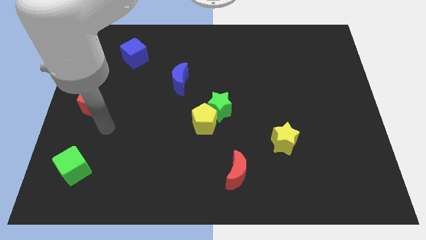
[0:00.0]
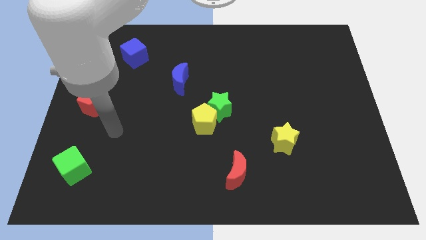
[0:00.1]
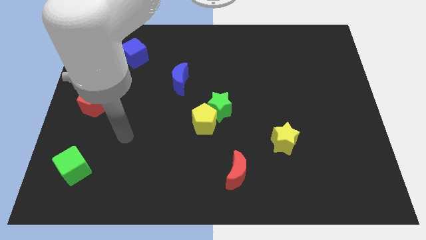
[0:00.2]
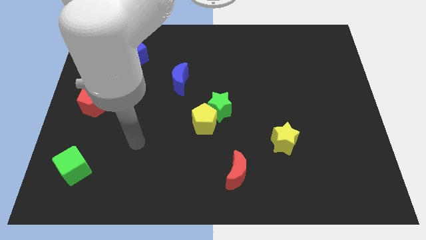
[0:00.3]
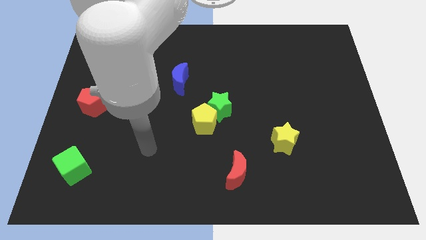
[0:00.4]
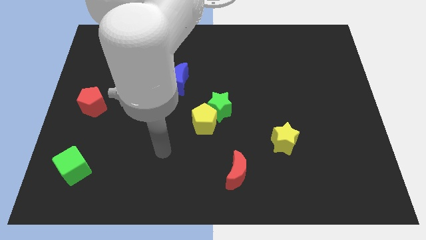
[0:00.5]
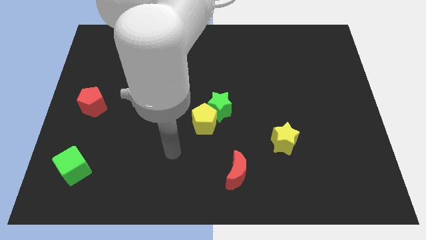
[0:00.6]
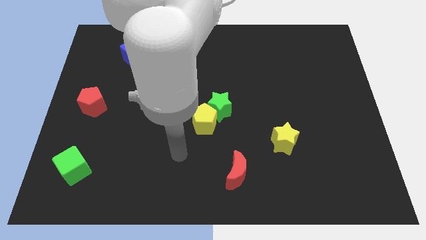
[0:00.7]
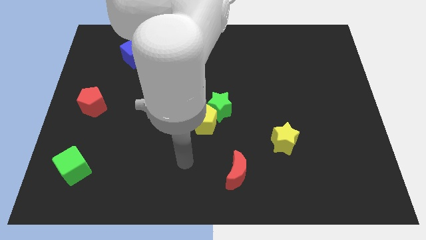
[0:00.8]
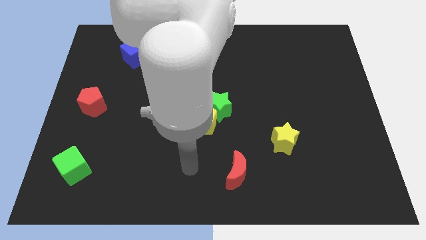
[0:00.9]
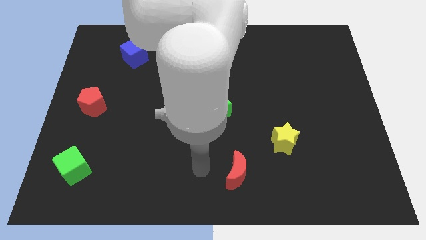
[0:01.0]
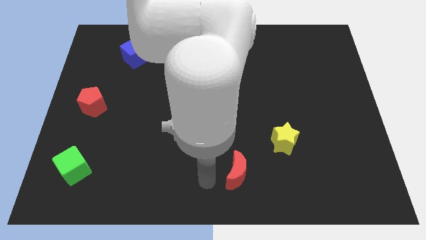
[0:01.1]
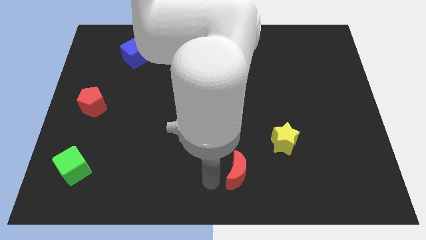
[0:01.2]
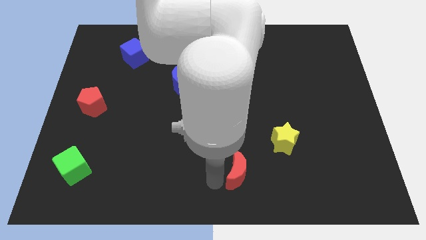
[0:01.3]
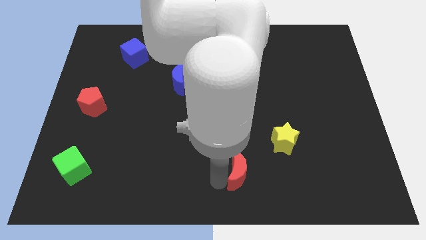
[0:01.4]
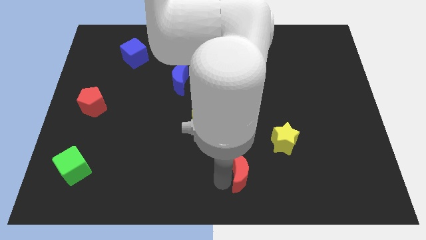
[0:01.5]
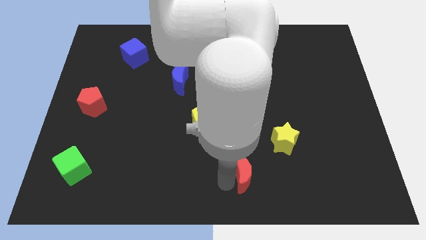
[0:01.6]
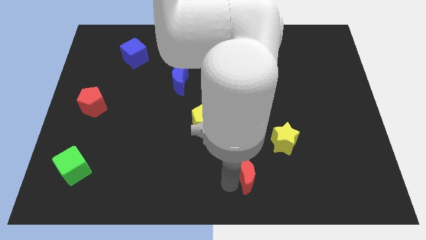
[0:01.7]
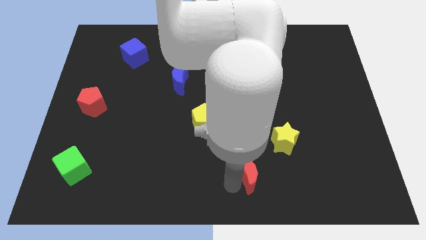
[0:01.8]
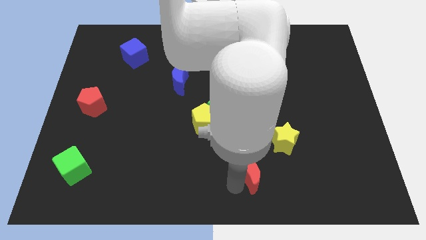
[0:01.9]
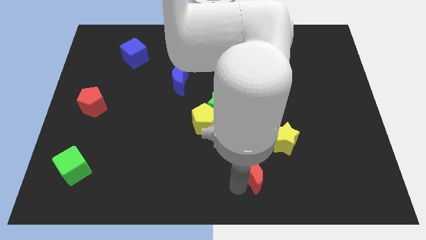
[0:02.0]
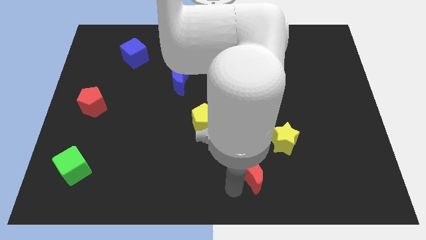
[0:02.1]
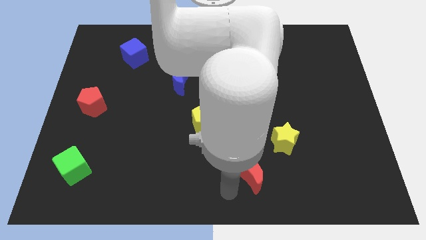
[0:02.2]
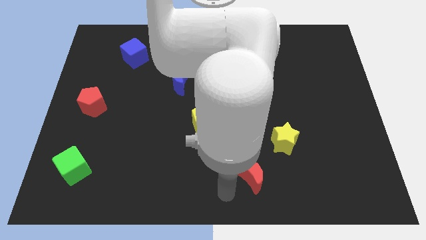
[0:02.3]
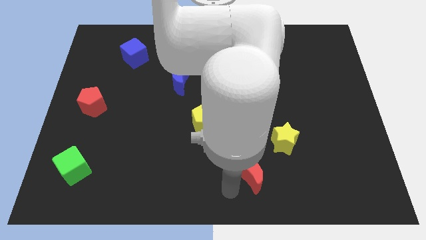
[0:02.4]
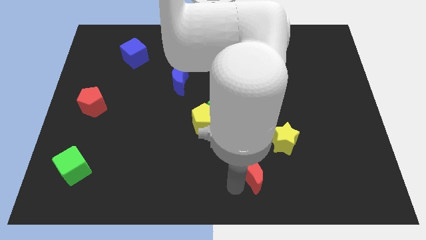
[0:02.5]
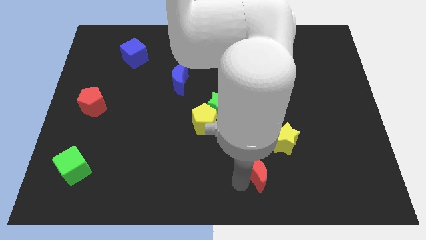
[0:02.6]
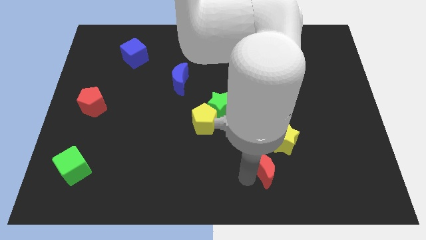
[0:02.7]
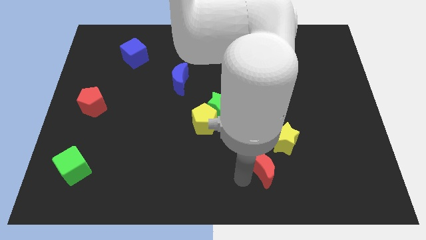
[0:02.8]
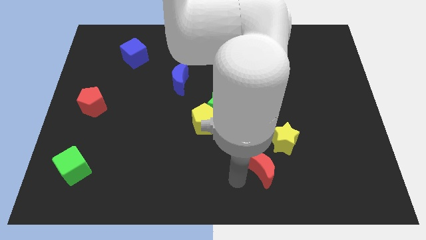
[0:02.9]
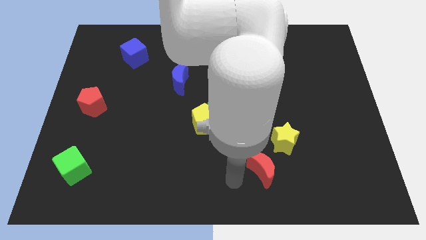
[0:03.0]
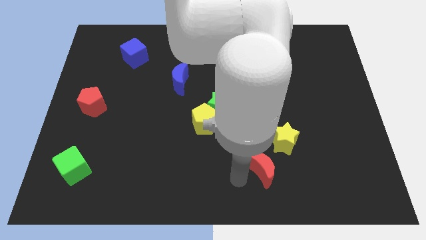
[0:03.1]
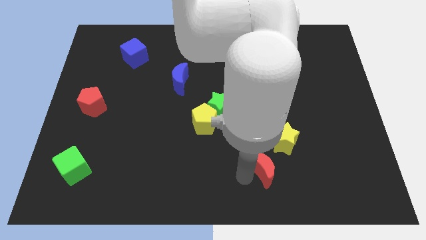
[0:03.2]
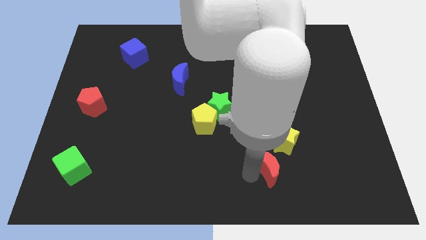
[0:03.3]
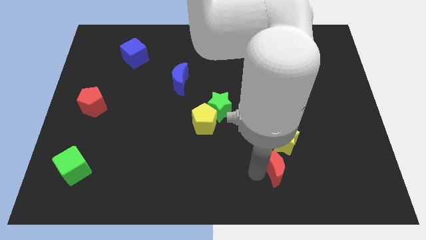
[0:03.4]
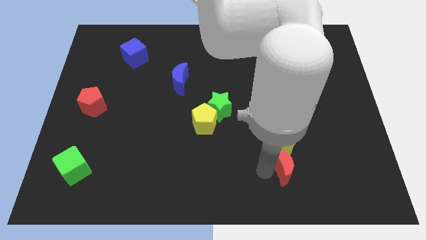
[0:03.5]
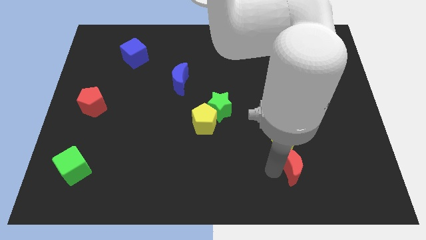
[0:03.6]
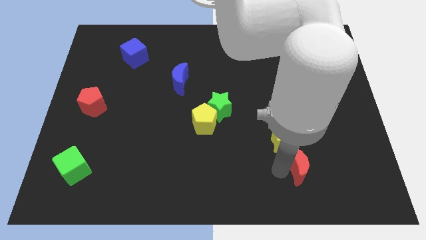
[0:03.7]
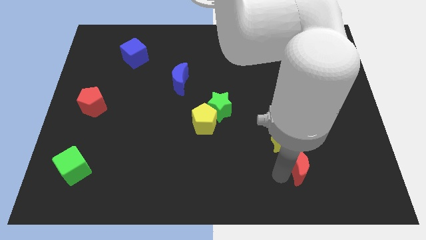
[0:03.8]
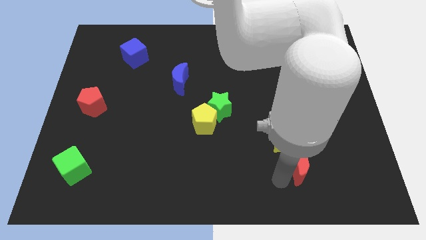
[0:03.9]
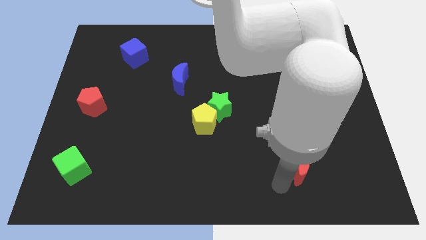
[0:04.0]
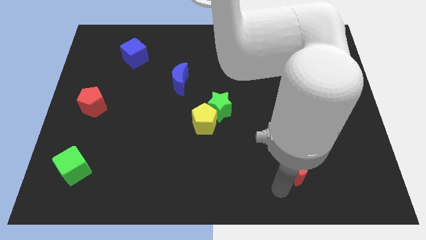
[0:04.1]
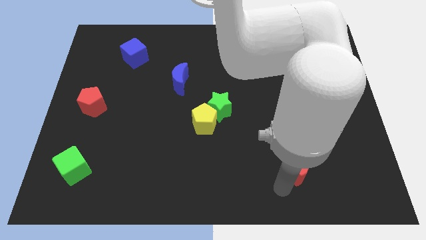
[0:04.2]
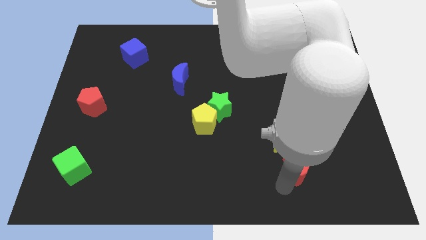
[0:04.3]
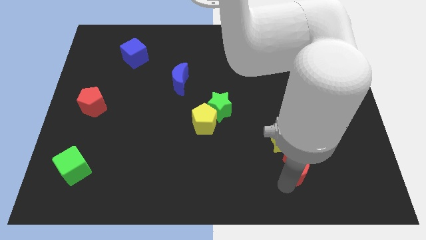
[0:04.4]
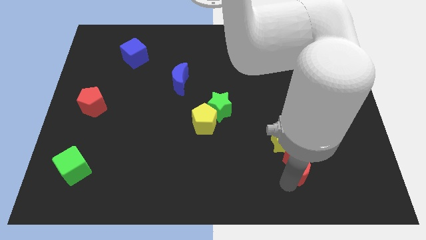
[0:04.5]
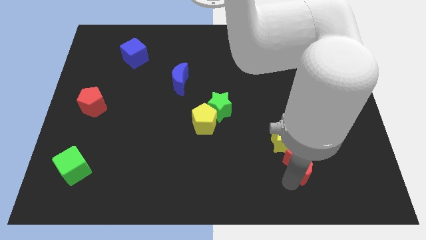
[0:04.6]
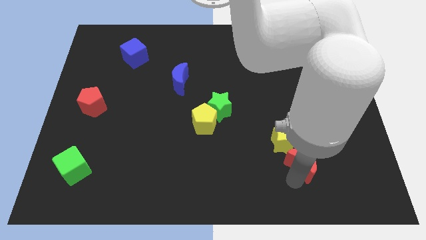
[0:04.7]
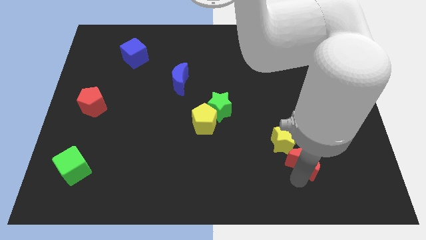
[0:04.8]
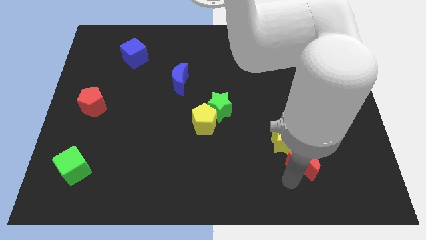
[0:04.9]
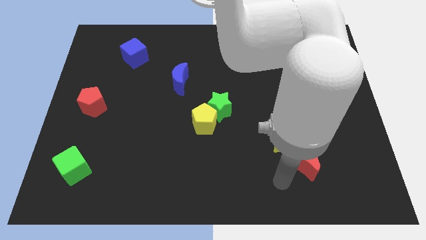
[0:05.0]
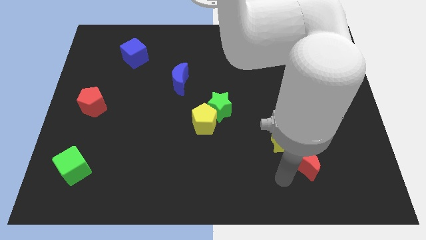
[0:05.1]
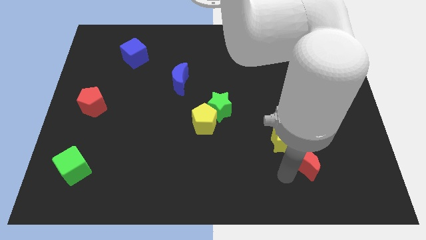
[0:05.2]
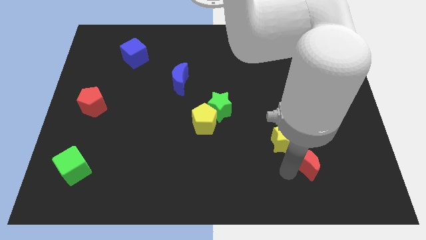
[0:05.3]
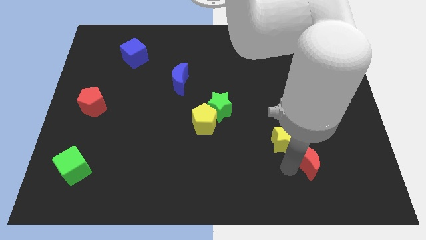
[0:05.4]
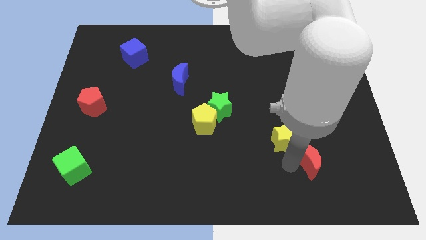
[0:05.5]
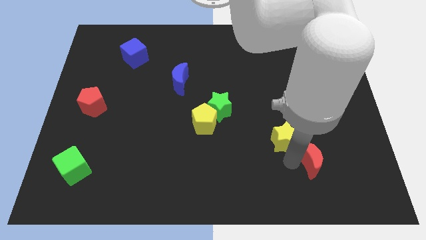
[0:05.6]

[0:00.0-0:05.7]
push the red moon right of the yellow star

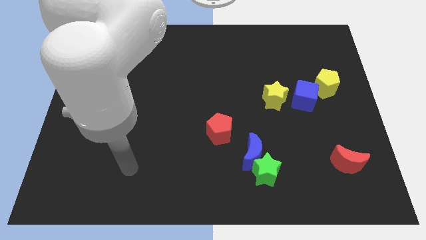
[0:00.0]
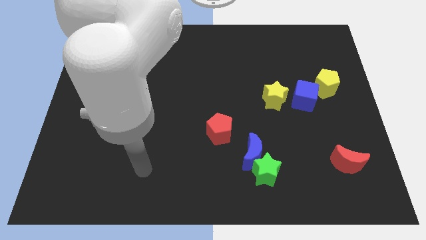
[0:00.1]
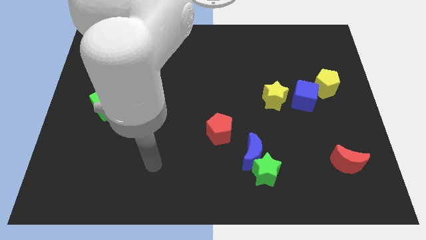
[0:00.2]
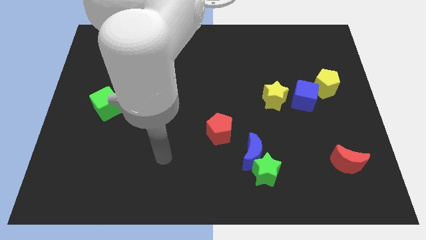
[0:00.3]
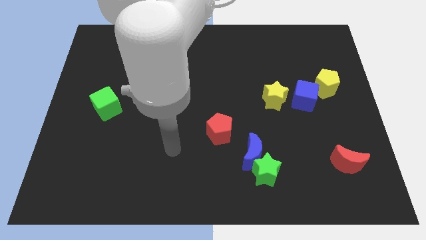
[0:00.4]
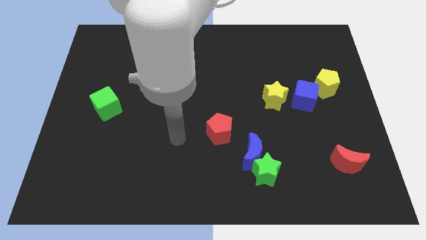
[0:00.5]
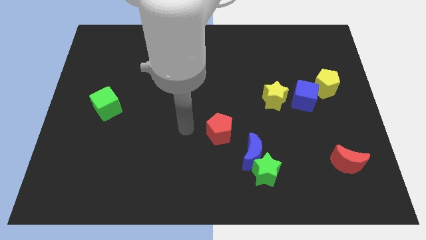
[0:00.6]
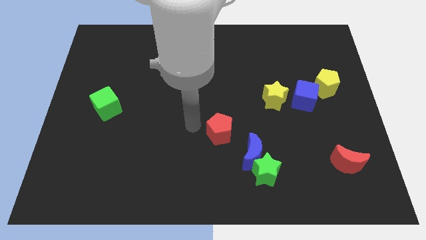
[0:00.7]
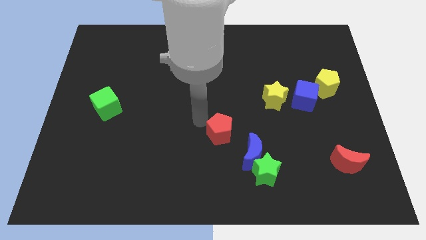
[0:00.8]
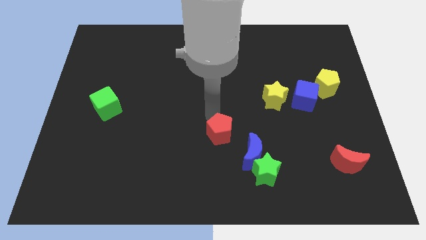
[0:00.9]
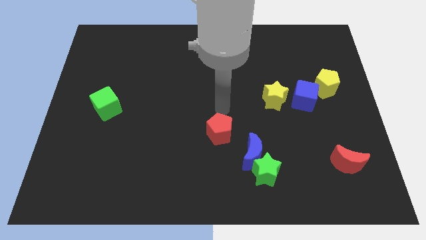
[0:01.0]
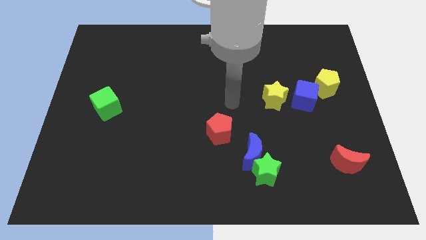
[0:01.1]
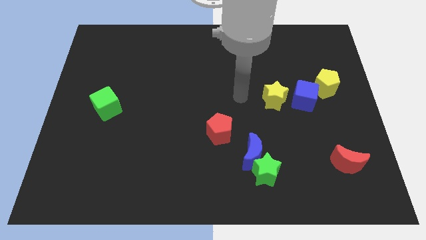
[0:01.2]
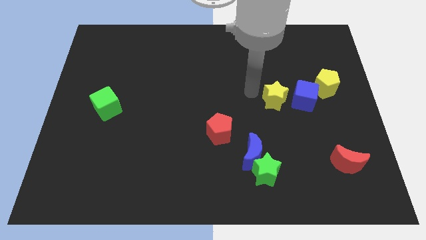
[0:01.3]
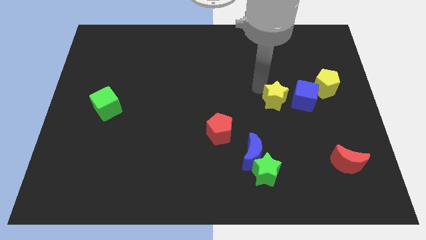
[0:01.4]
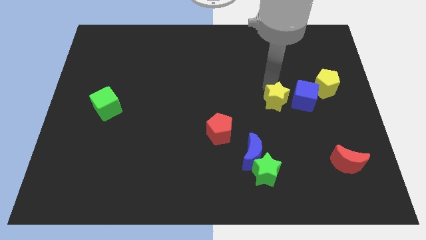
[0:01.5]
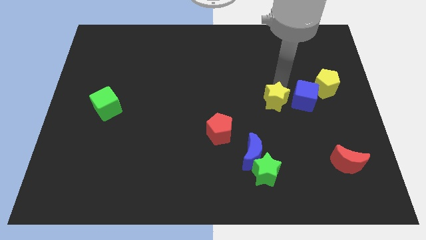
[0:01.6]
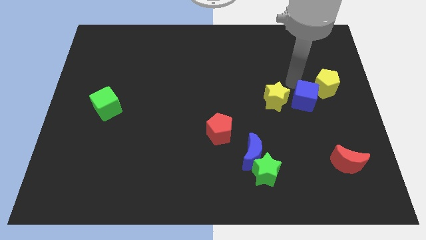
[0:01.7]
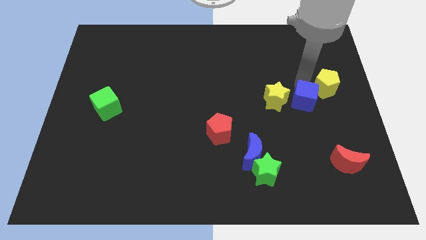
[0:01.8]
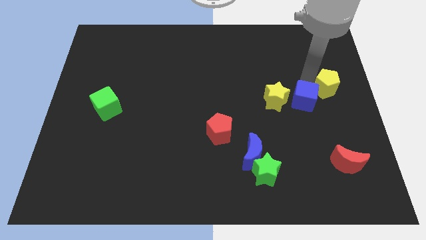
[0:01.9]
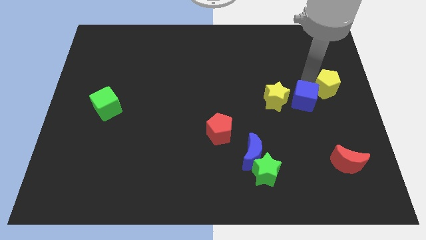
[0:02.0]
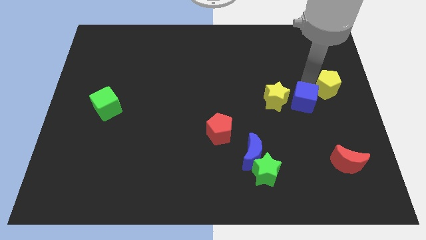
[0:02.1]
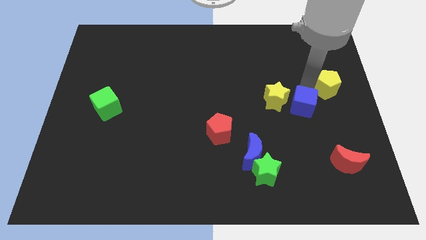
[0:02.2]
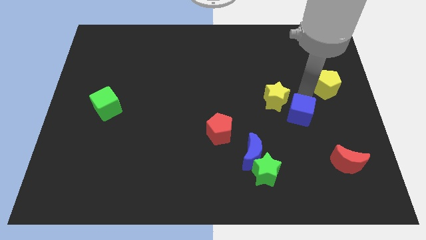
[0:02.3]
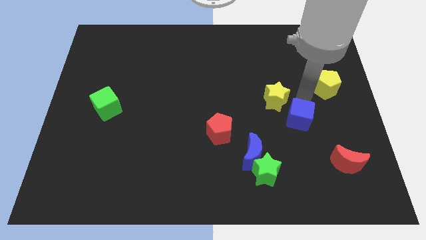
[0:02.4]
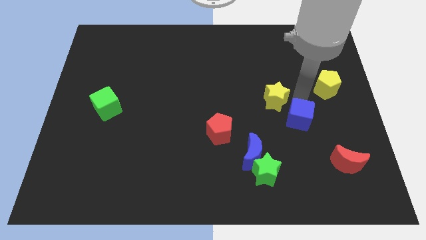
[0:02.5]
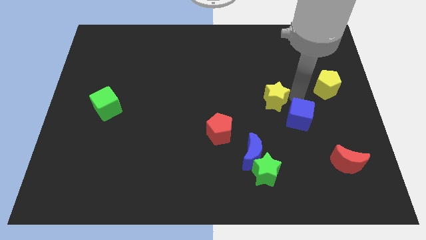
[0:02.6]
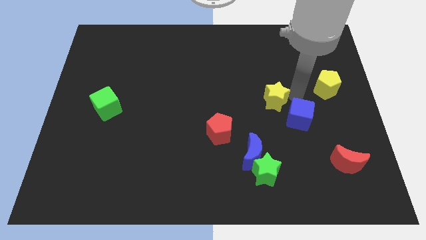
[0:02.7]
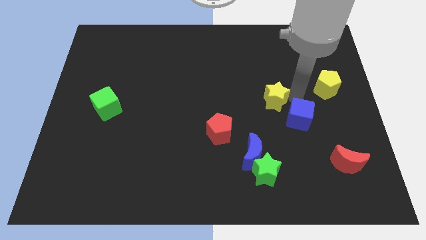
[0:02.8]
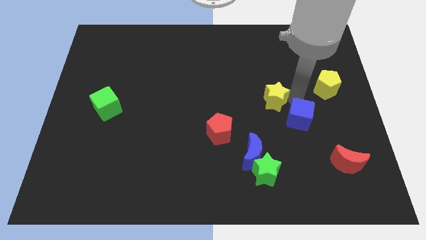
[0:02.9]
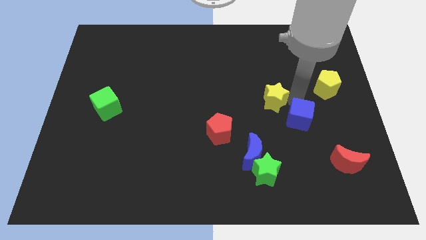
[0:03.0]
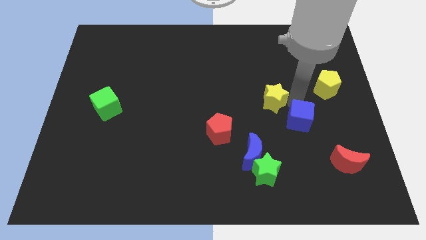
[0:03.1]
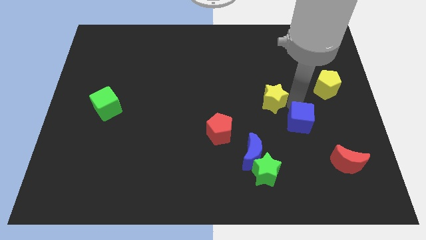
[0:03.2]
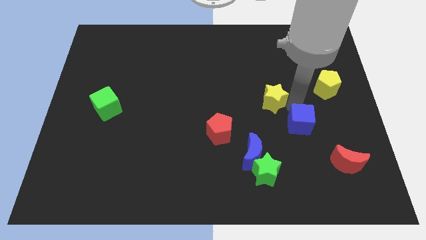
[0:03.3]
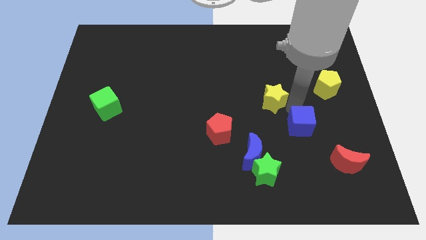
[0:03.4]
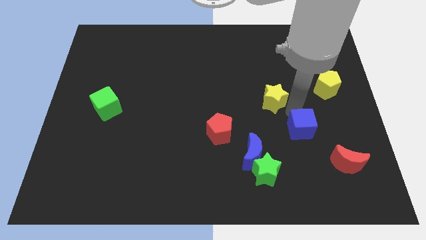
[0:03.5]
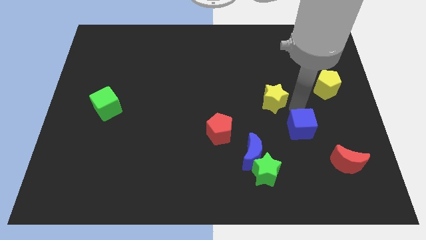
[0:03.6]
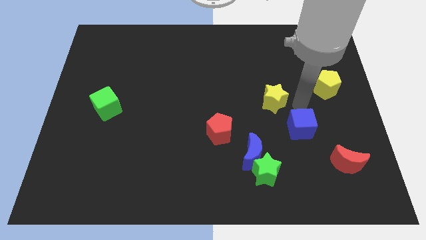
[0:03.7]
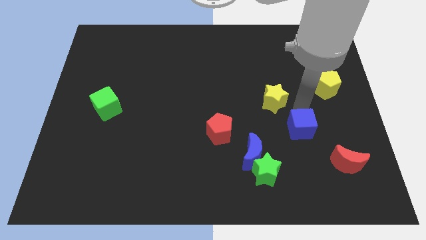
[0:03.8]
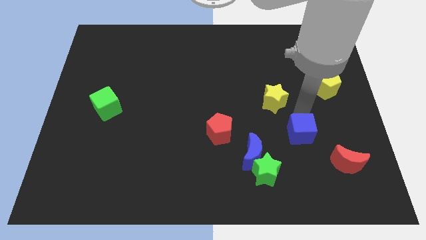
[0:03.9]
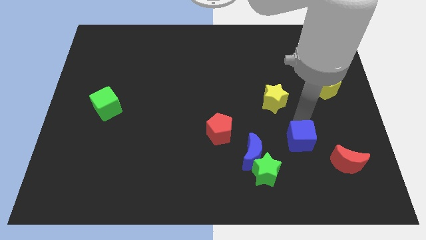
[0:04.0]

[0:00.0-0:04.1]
put the blue cube right of the blue moon
